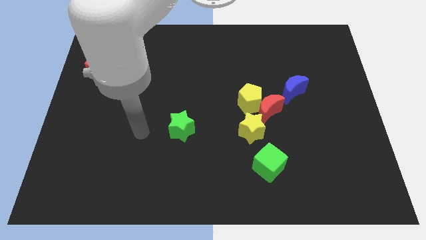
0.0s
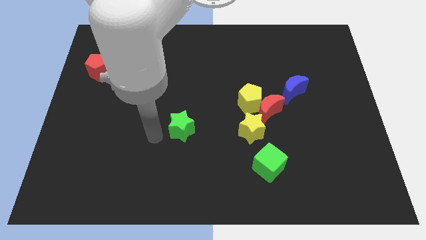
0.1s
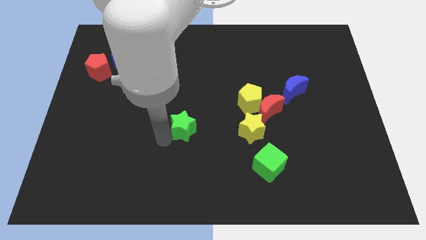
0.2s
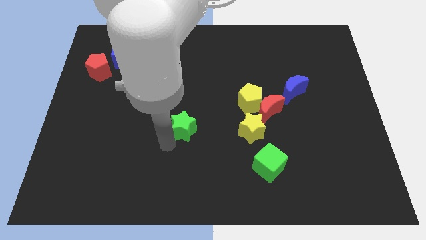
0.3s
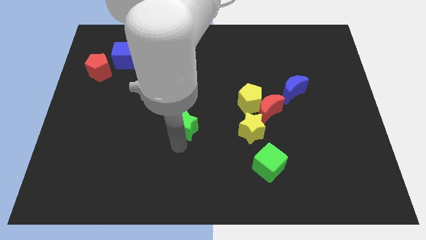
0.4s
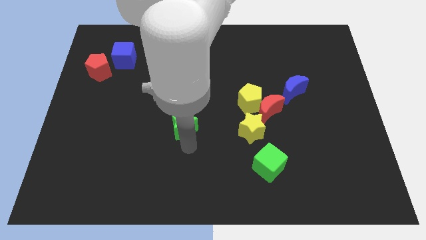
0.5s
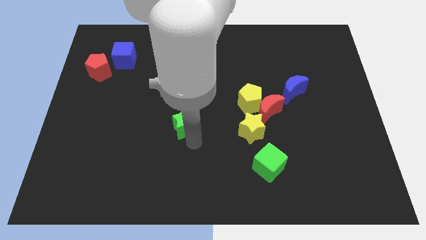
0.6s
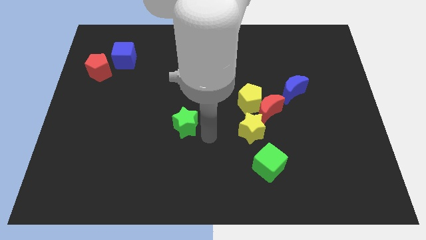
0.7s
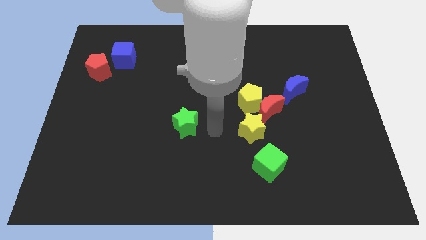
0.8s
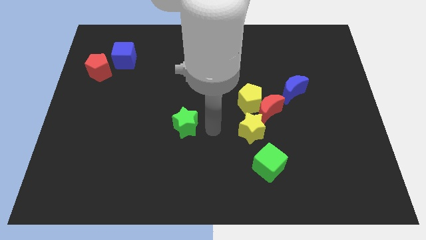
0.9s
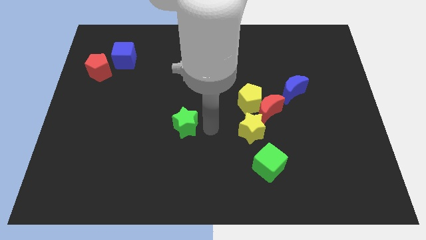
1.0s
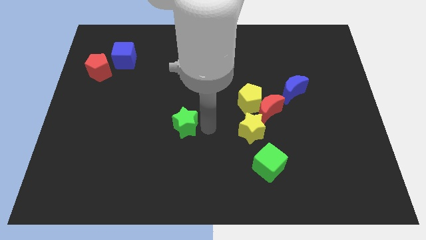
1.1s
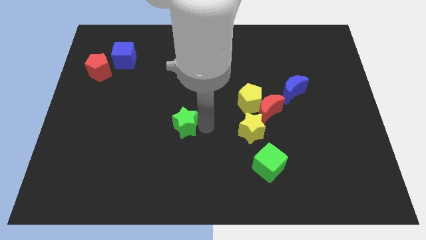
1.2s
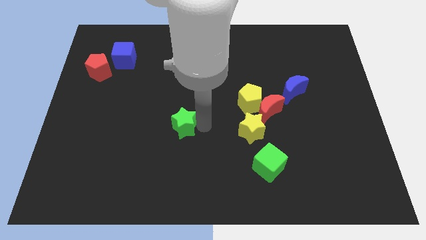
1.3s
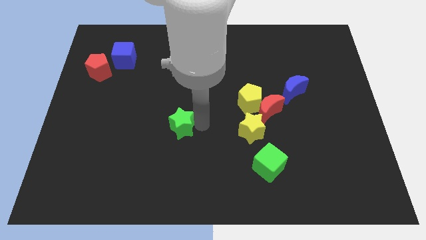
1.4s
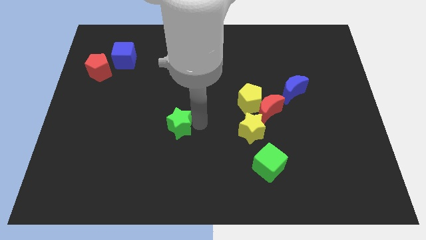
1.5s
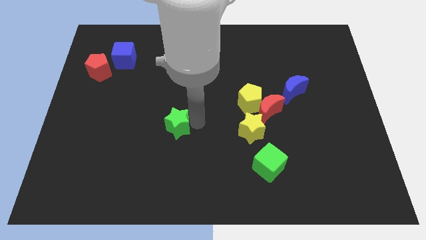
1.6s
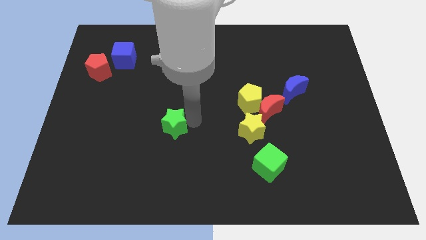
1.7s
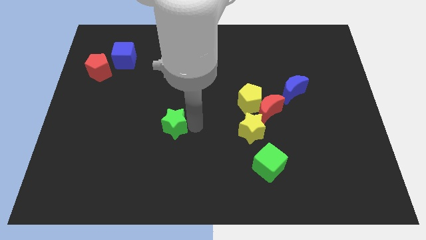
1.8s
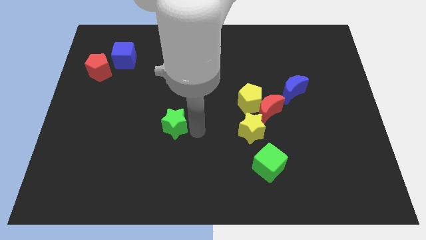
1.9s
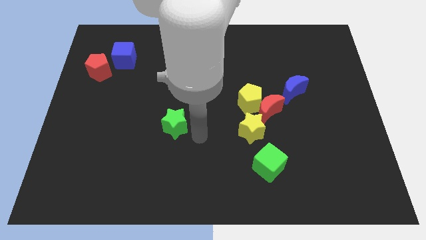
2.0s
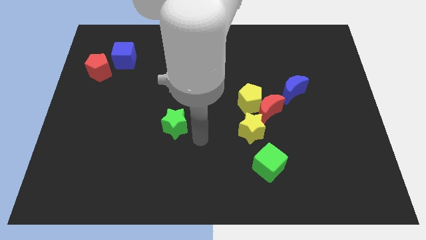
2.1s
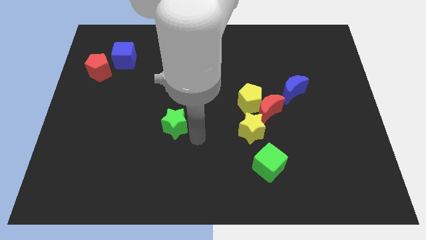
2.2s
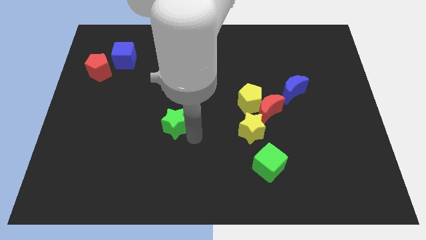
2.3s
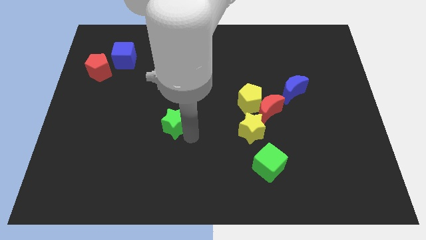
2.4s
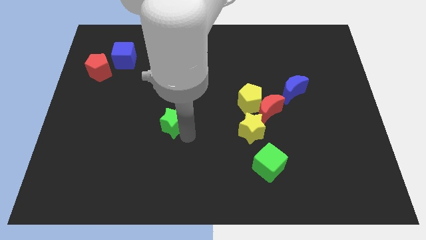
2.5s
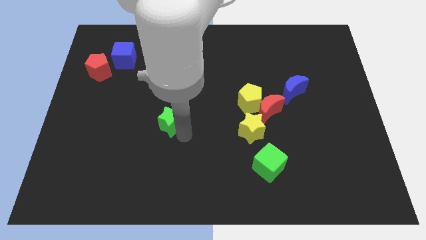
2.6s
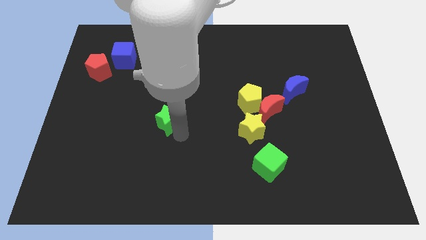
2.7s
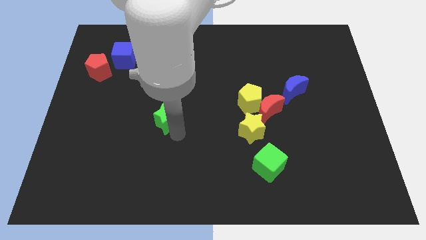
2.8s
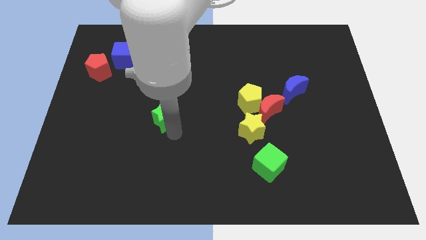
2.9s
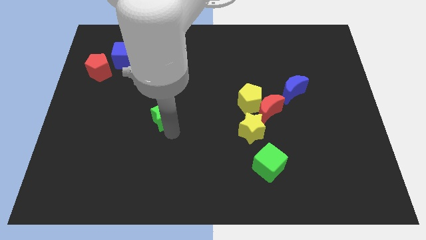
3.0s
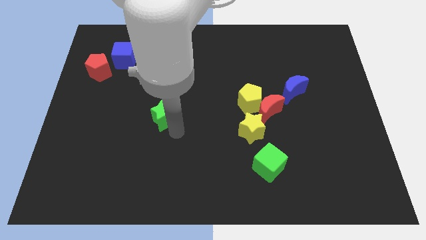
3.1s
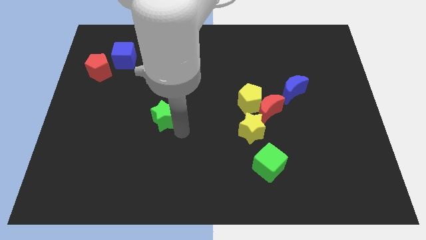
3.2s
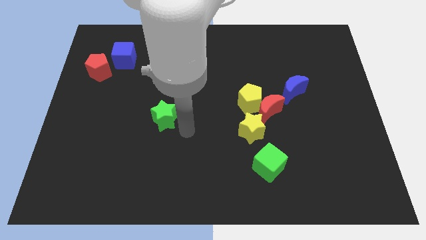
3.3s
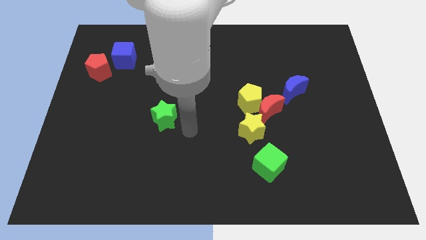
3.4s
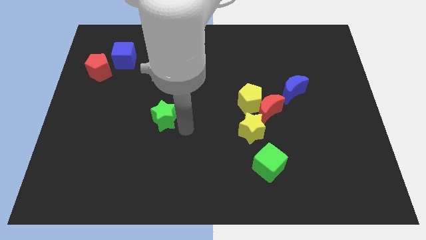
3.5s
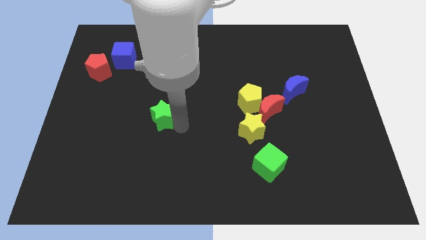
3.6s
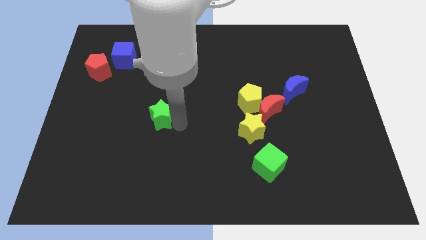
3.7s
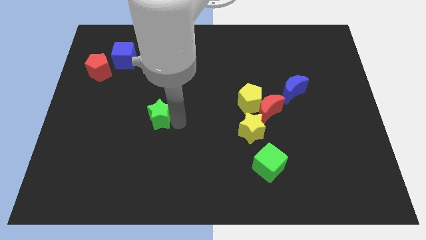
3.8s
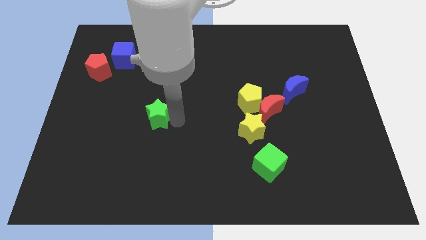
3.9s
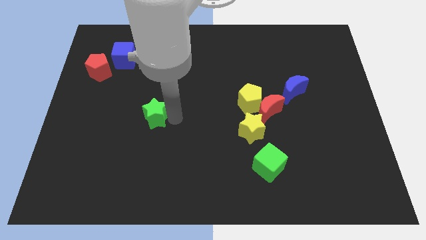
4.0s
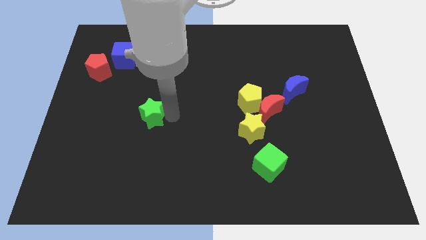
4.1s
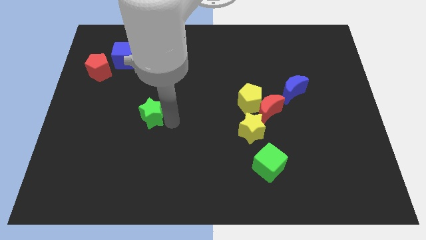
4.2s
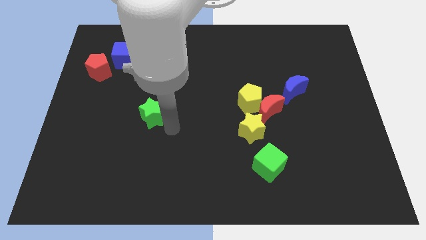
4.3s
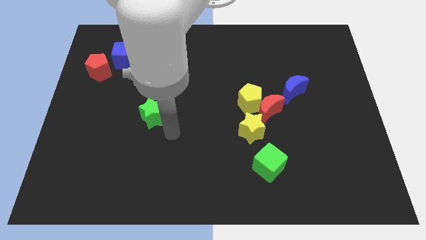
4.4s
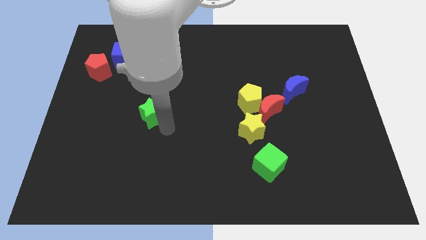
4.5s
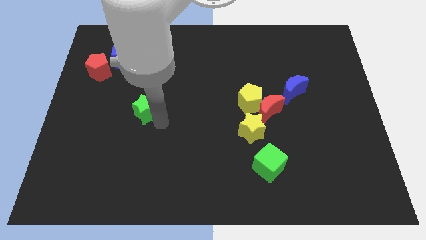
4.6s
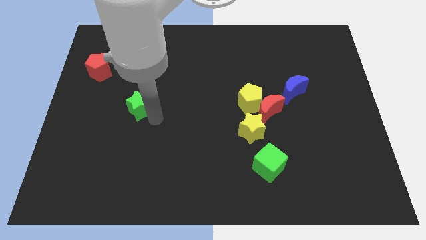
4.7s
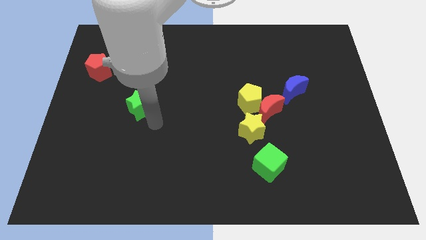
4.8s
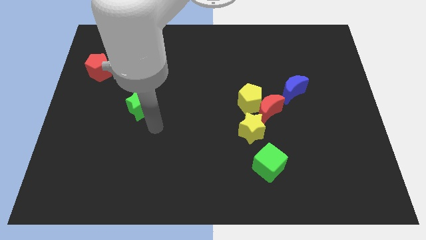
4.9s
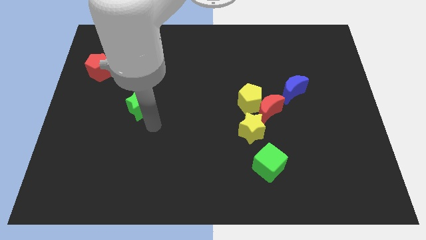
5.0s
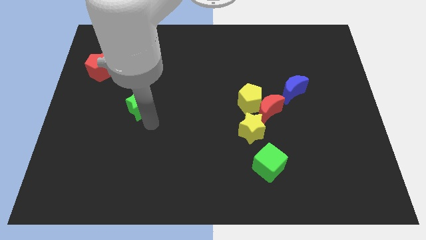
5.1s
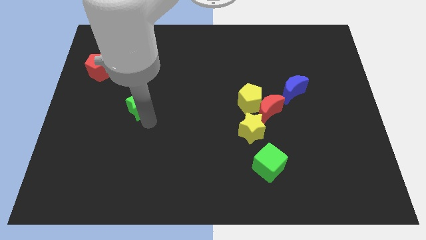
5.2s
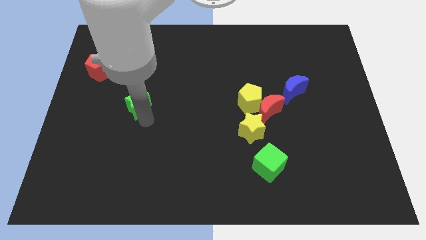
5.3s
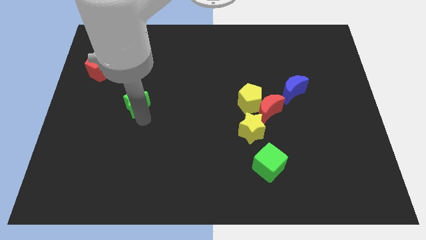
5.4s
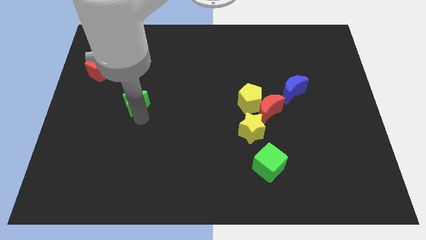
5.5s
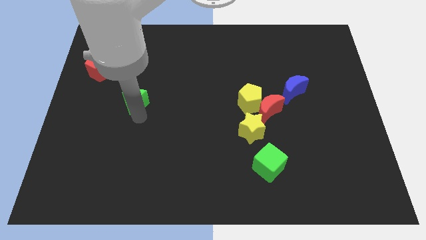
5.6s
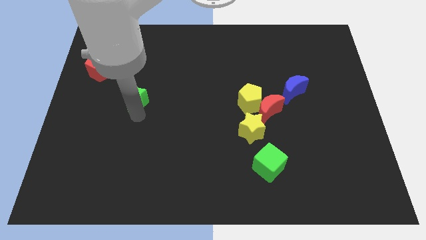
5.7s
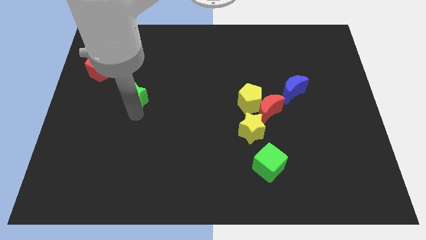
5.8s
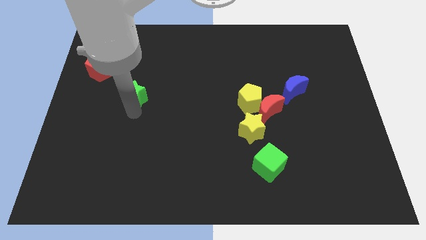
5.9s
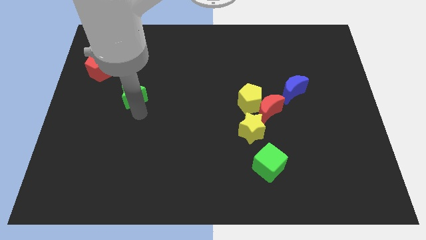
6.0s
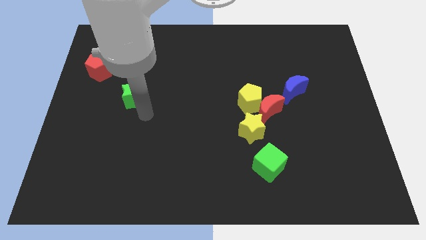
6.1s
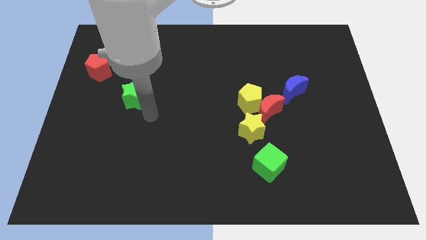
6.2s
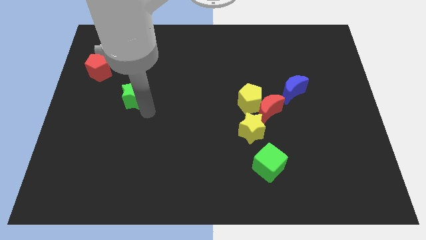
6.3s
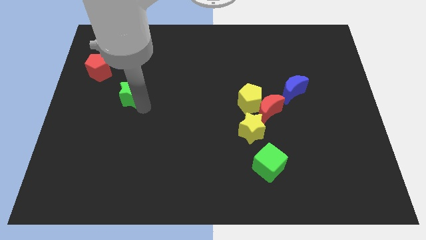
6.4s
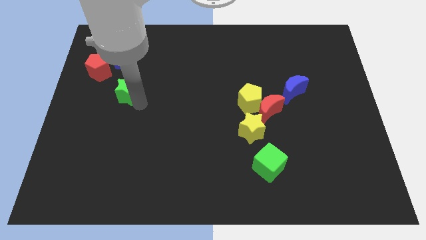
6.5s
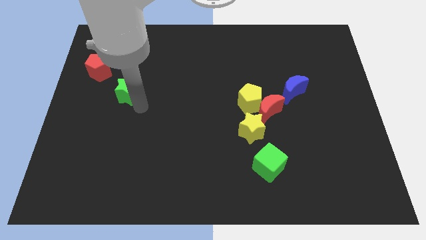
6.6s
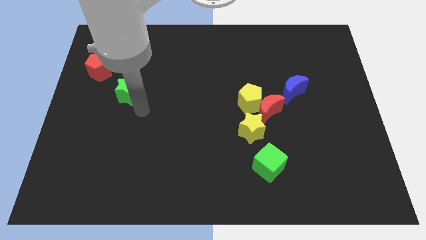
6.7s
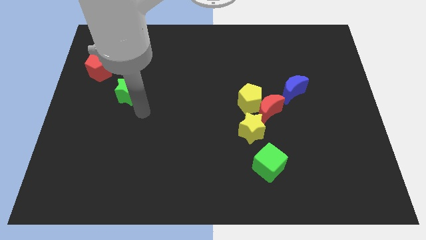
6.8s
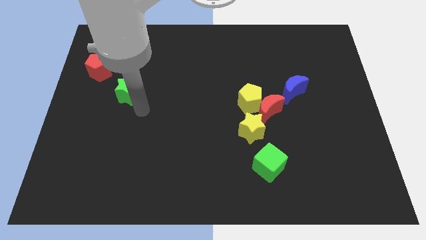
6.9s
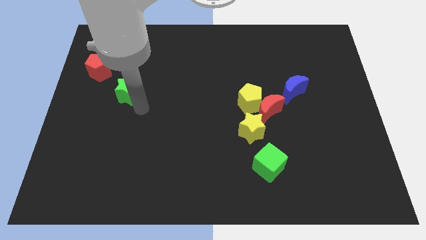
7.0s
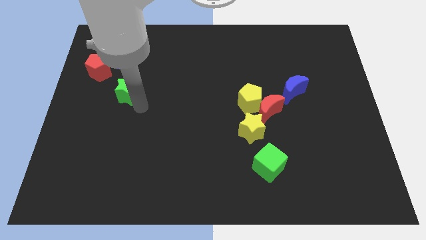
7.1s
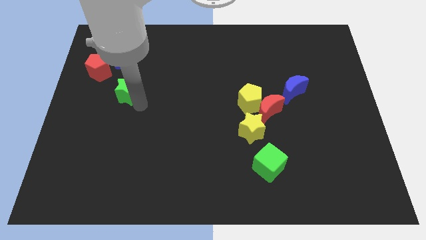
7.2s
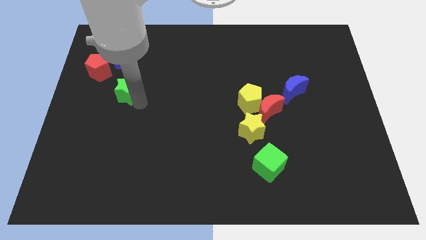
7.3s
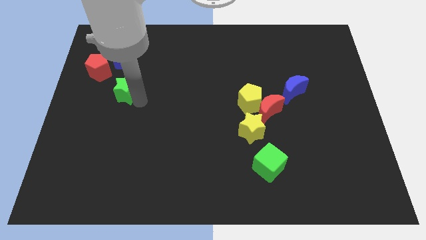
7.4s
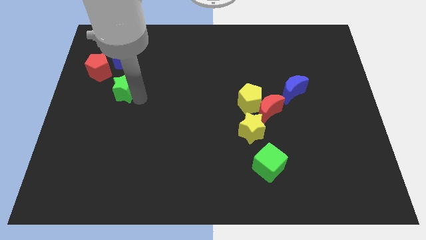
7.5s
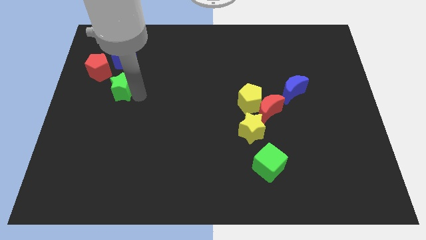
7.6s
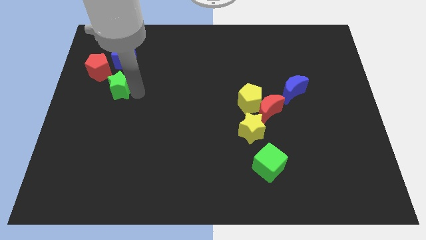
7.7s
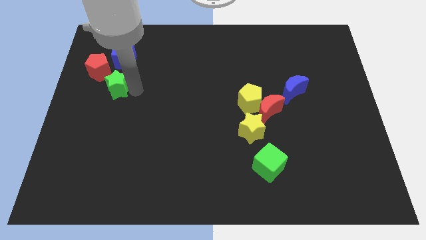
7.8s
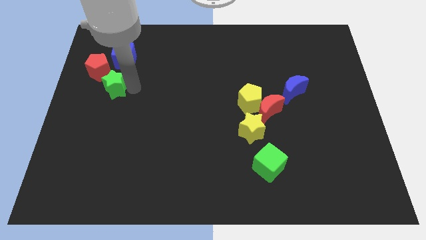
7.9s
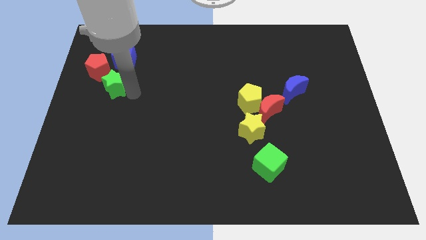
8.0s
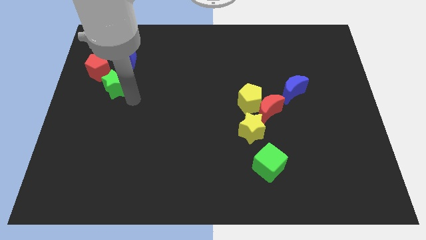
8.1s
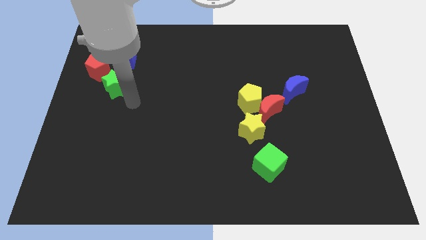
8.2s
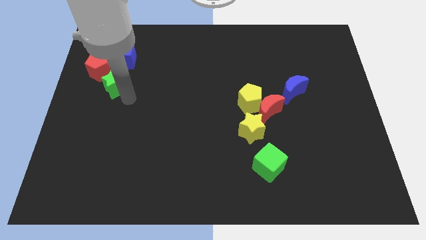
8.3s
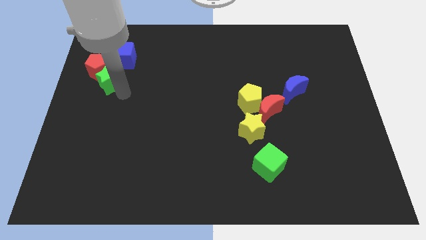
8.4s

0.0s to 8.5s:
put the green star next to the red pentagon
